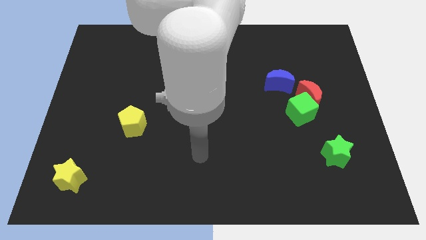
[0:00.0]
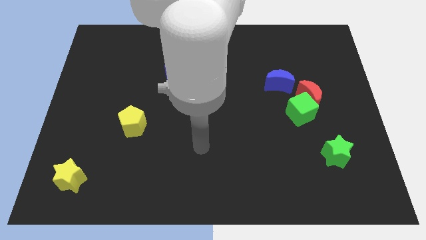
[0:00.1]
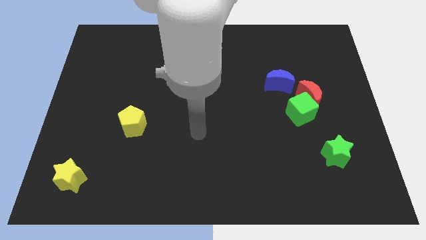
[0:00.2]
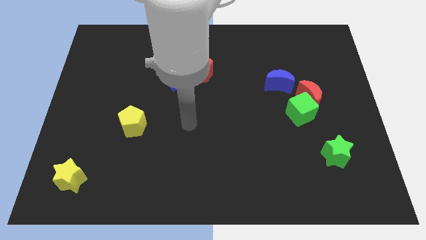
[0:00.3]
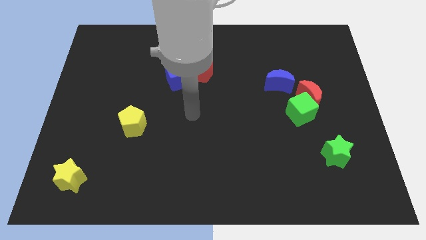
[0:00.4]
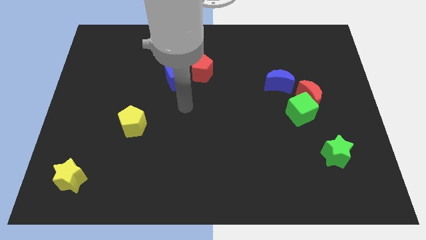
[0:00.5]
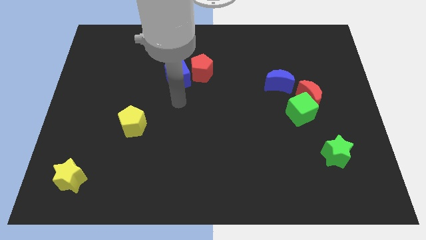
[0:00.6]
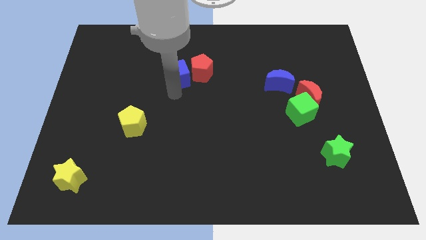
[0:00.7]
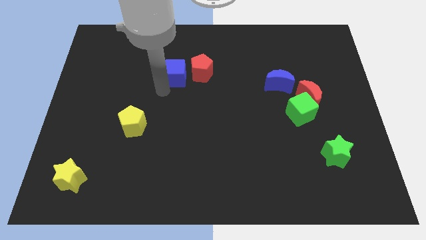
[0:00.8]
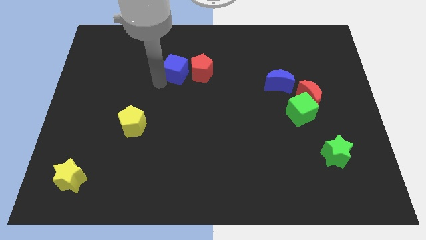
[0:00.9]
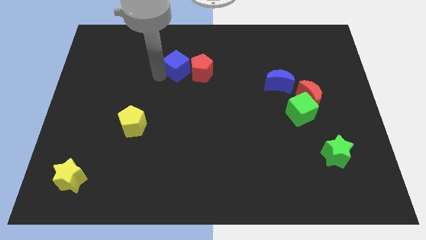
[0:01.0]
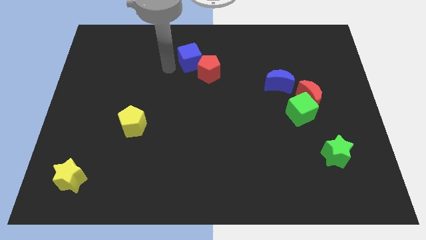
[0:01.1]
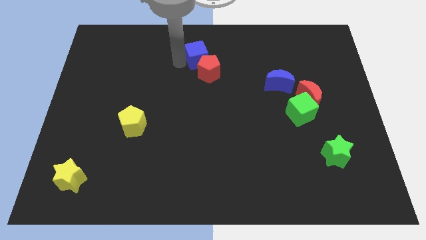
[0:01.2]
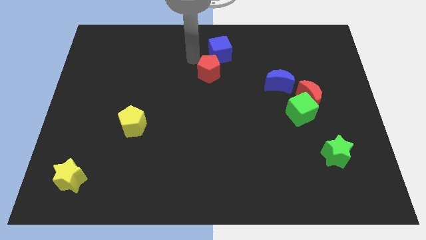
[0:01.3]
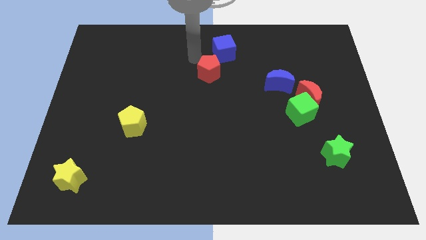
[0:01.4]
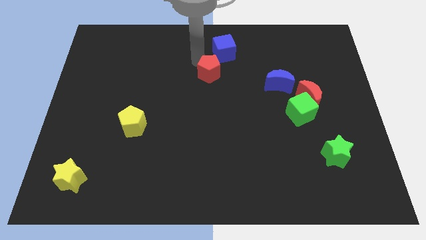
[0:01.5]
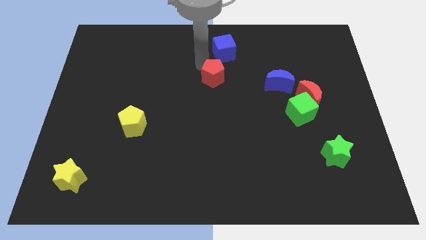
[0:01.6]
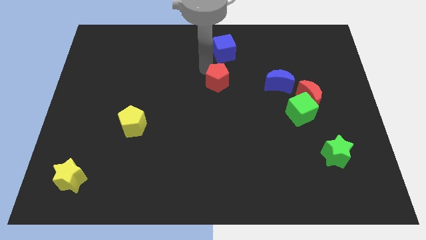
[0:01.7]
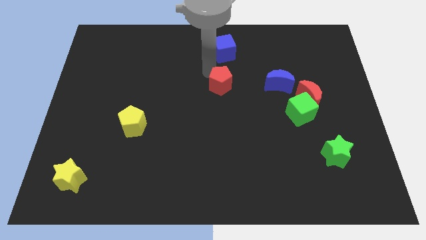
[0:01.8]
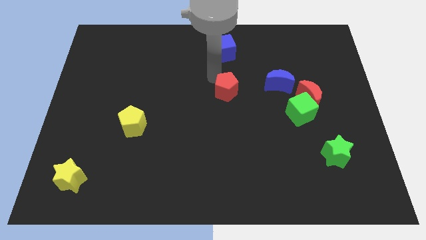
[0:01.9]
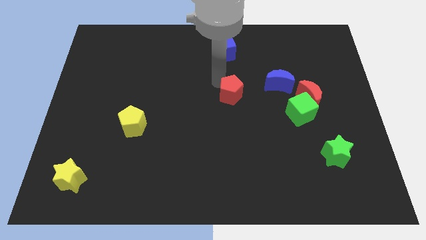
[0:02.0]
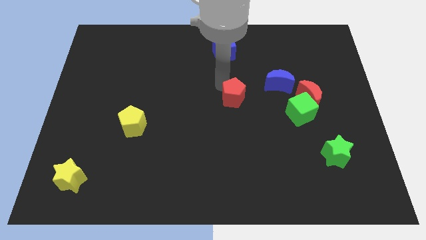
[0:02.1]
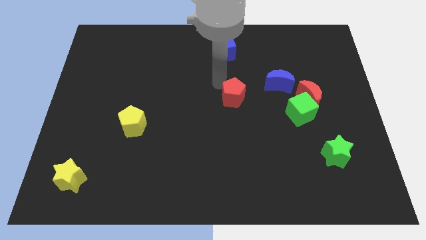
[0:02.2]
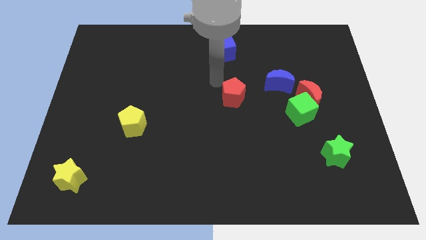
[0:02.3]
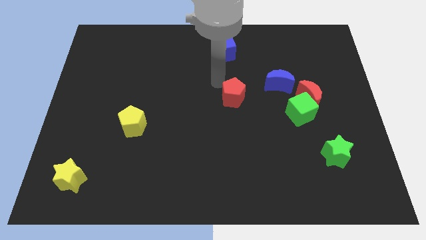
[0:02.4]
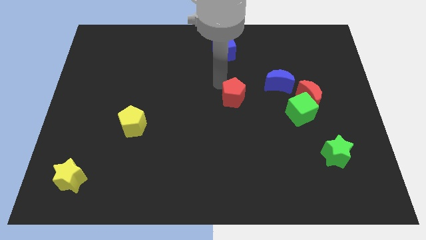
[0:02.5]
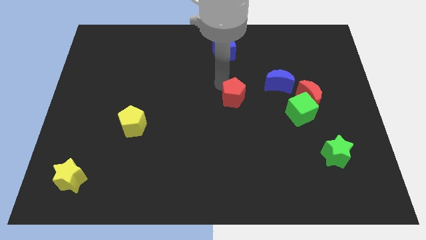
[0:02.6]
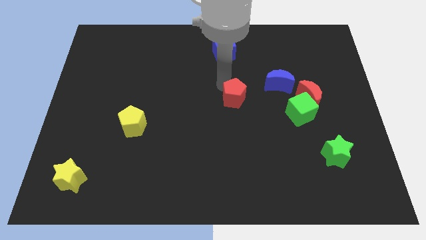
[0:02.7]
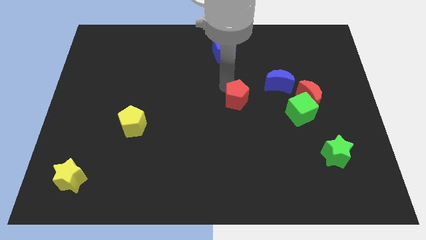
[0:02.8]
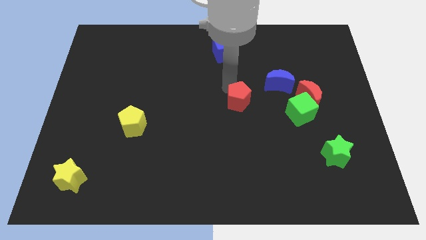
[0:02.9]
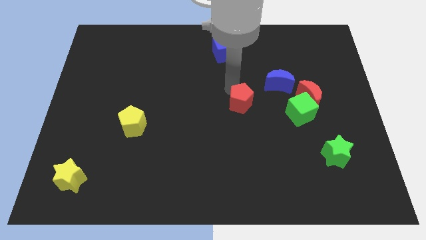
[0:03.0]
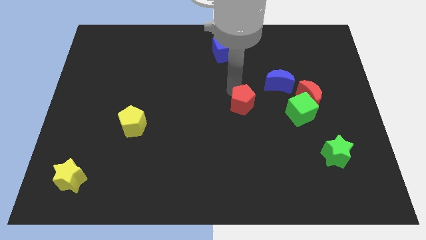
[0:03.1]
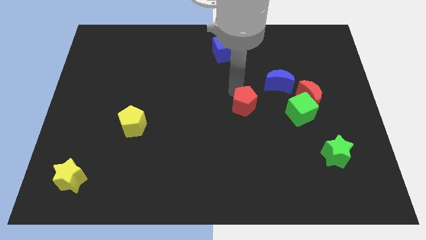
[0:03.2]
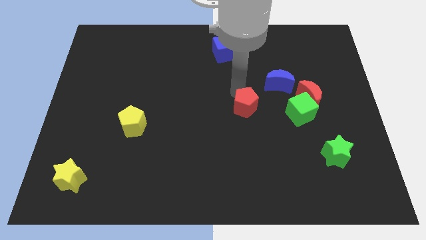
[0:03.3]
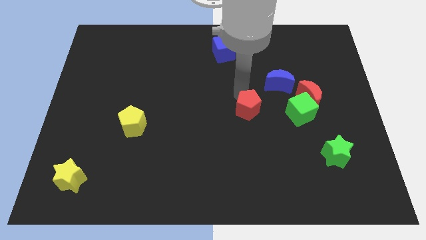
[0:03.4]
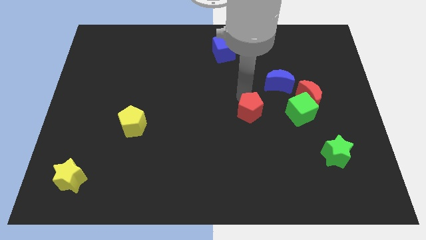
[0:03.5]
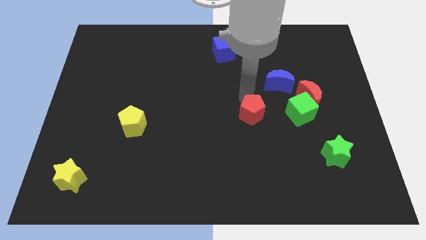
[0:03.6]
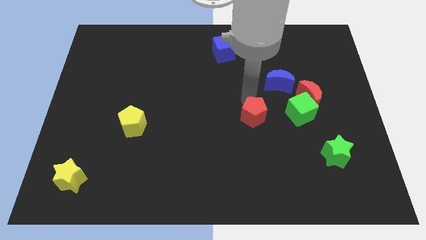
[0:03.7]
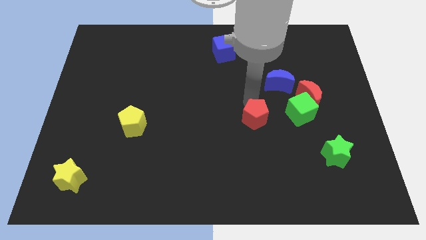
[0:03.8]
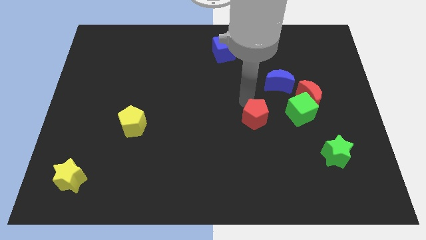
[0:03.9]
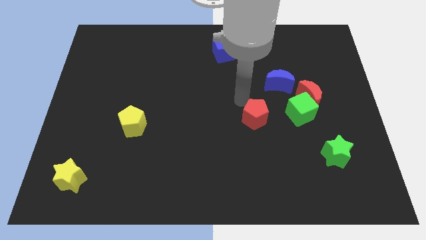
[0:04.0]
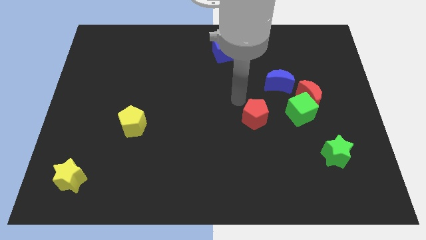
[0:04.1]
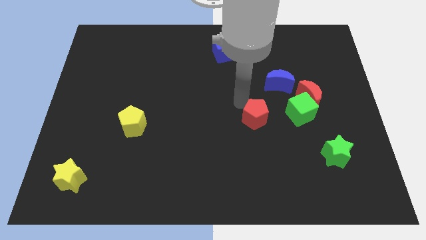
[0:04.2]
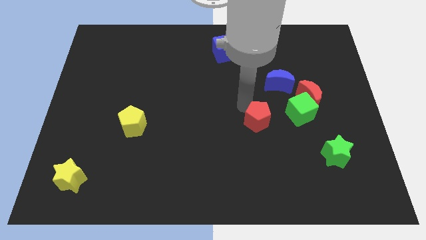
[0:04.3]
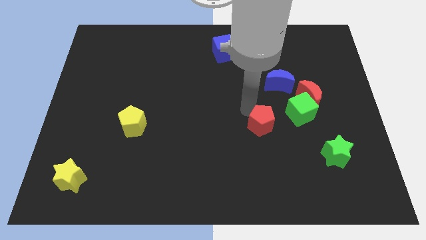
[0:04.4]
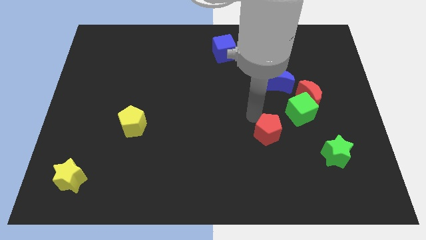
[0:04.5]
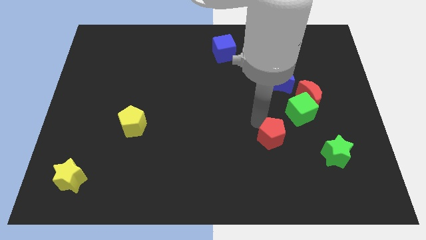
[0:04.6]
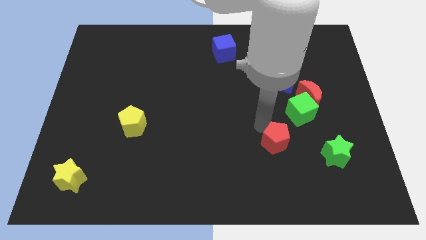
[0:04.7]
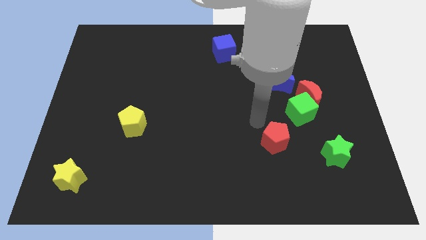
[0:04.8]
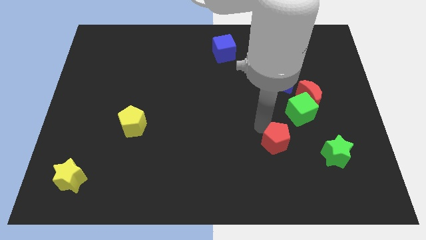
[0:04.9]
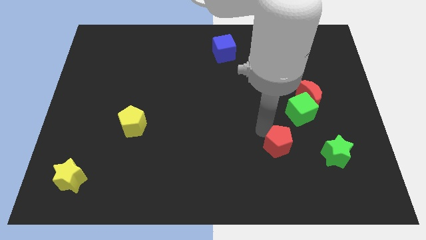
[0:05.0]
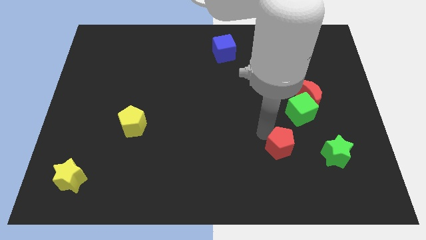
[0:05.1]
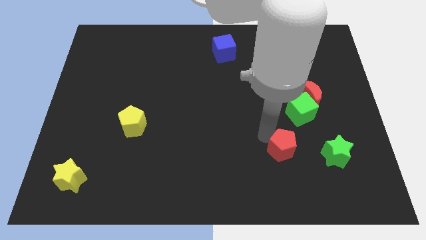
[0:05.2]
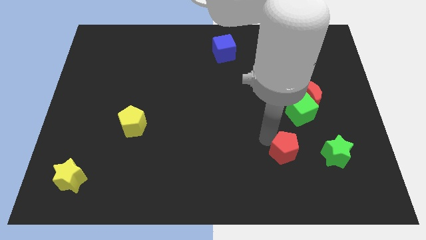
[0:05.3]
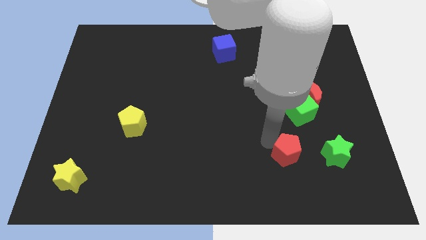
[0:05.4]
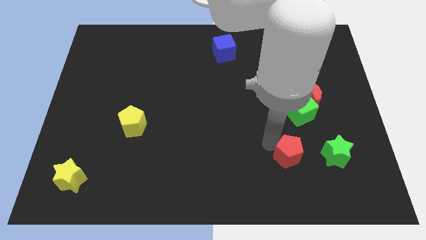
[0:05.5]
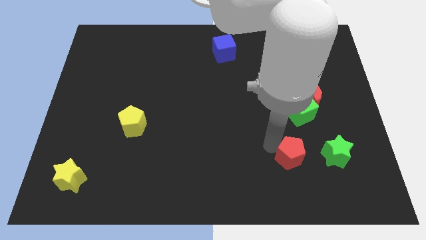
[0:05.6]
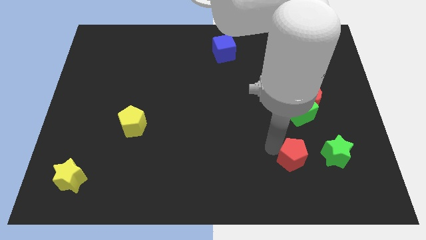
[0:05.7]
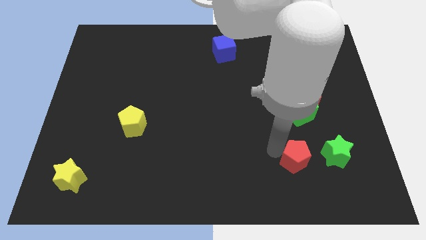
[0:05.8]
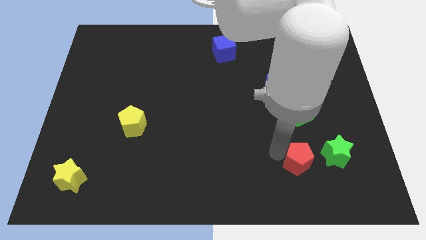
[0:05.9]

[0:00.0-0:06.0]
move the red pentagon to the bottom left of the green star

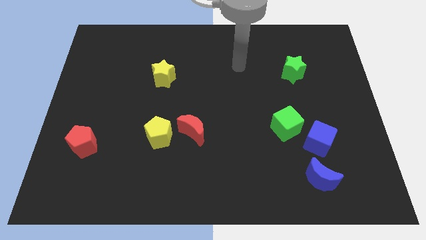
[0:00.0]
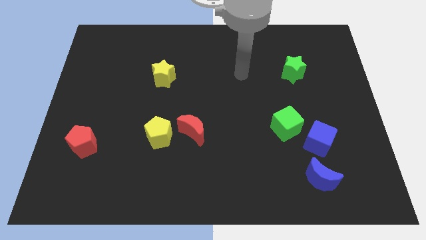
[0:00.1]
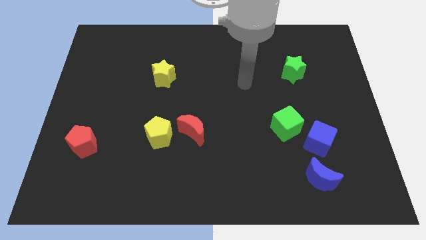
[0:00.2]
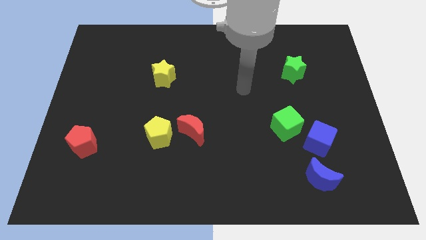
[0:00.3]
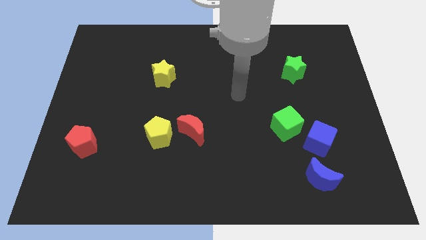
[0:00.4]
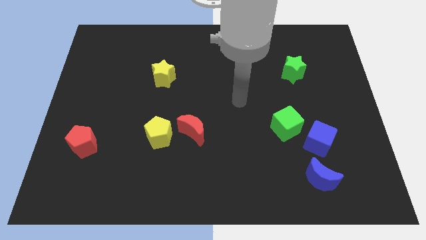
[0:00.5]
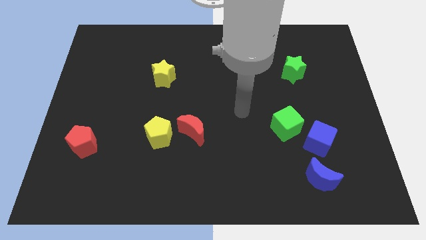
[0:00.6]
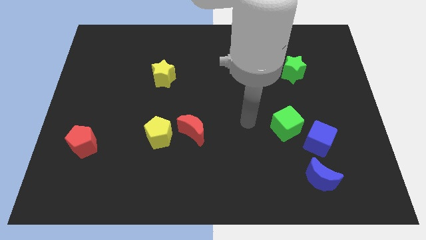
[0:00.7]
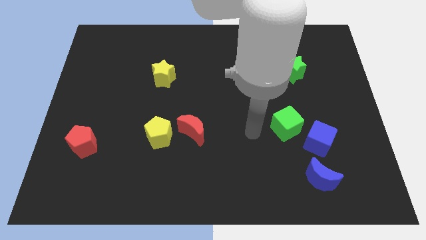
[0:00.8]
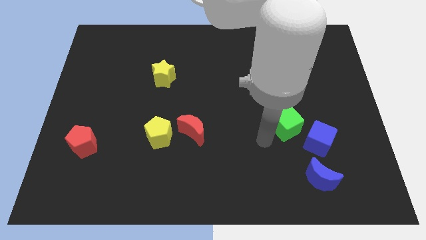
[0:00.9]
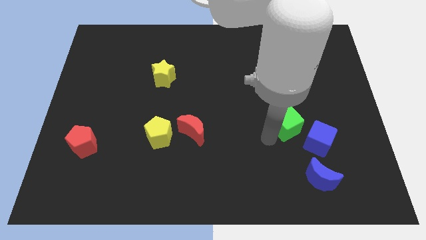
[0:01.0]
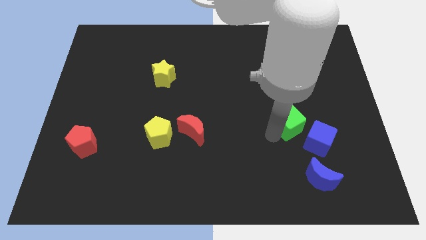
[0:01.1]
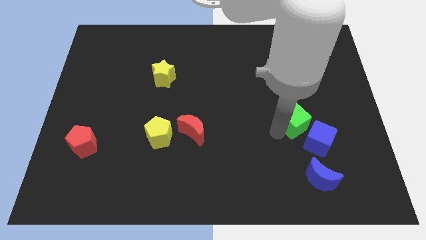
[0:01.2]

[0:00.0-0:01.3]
push the green cube to the top of the blue cube
